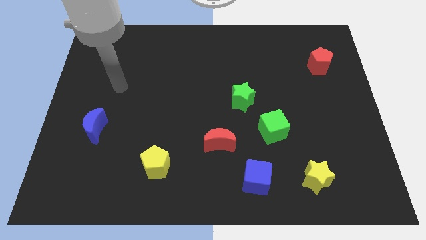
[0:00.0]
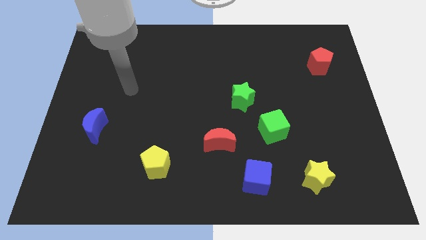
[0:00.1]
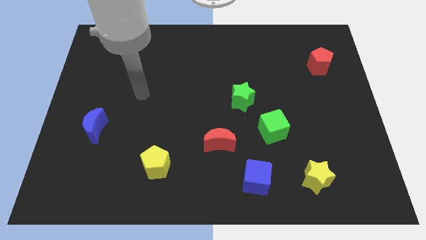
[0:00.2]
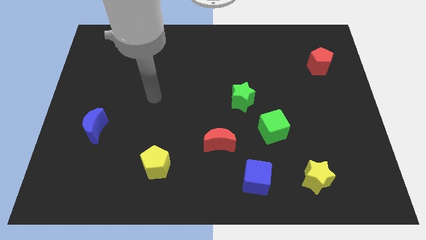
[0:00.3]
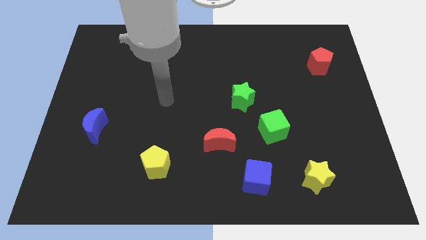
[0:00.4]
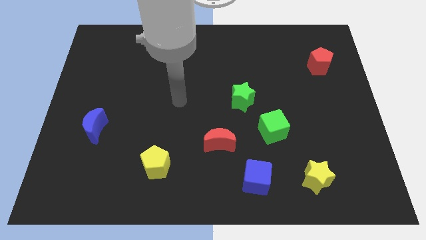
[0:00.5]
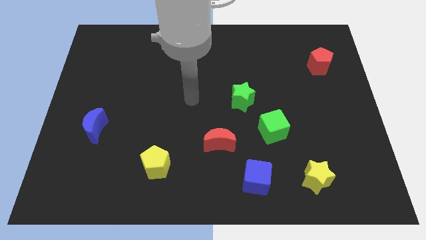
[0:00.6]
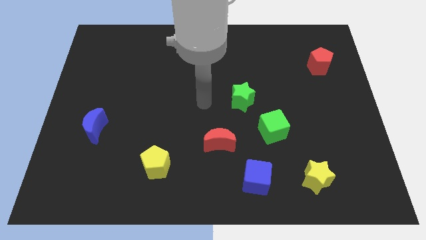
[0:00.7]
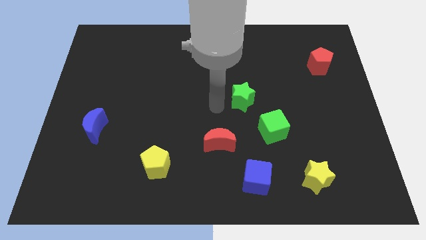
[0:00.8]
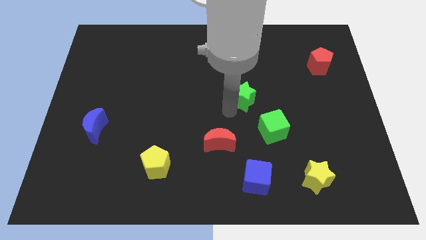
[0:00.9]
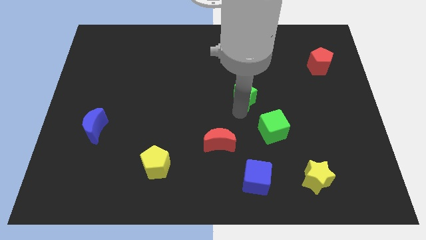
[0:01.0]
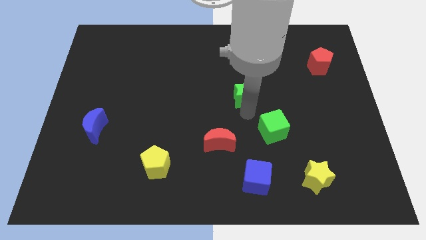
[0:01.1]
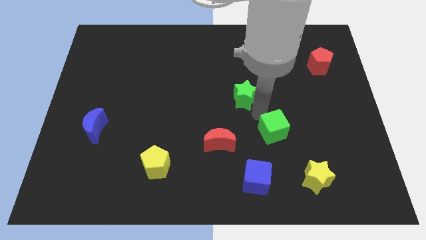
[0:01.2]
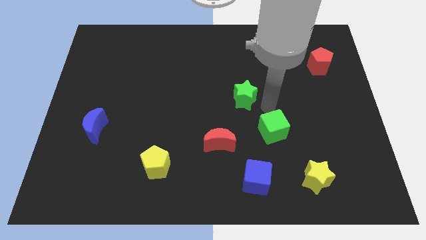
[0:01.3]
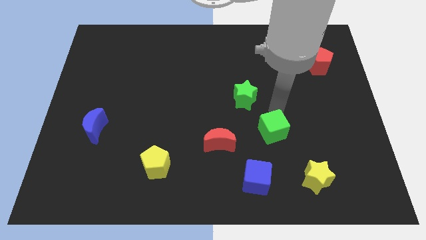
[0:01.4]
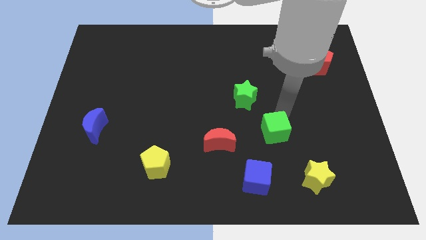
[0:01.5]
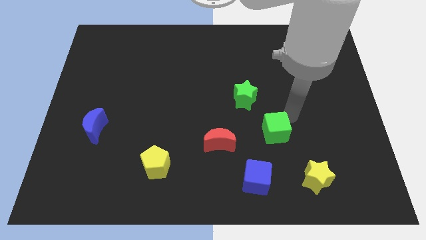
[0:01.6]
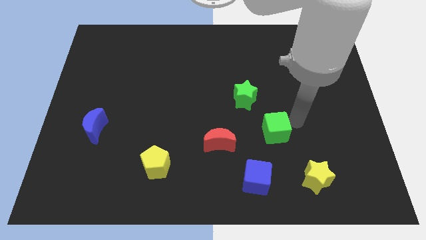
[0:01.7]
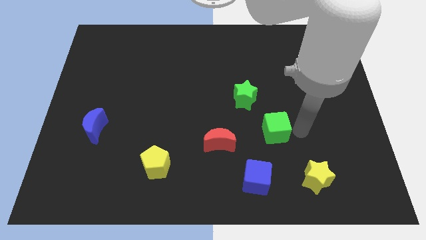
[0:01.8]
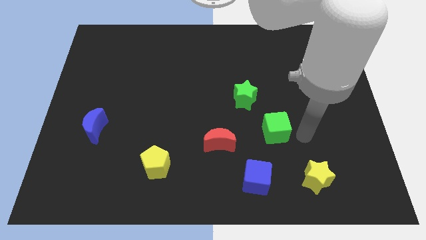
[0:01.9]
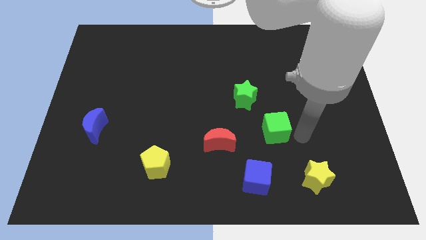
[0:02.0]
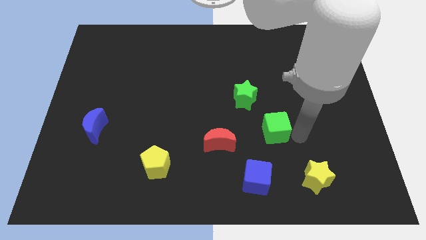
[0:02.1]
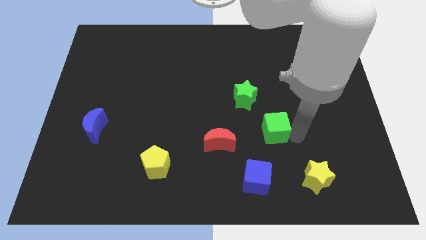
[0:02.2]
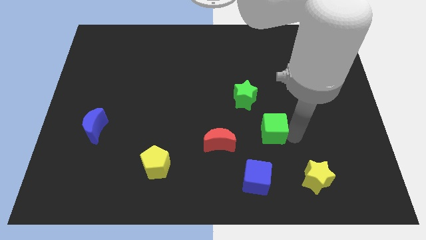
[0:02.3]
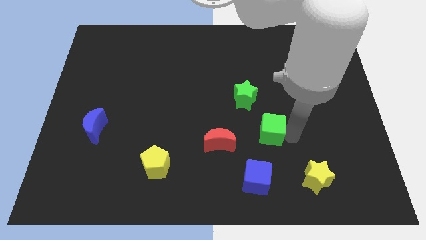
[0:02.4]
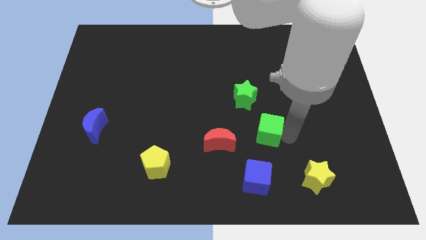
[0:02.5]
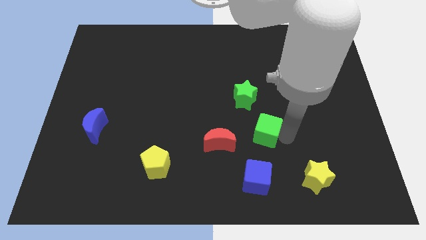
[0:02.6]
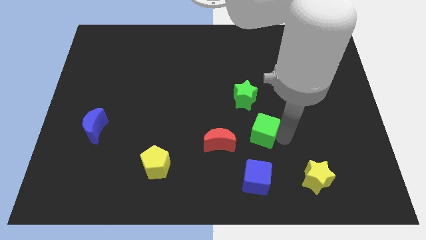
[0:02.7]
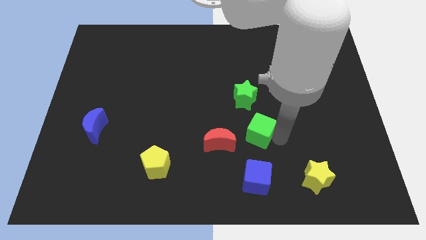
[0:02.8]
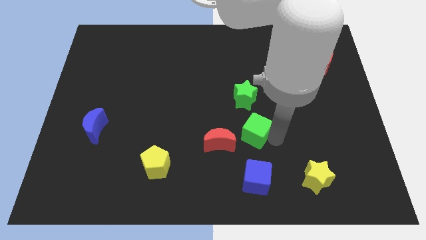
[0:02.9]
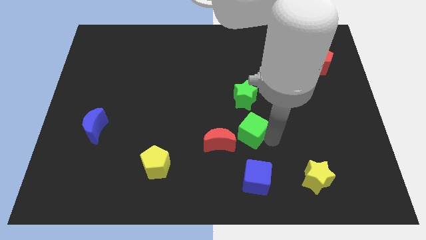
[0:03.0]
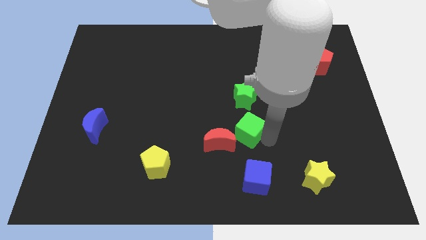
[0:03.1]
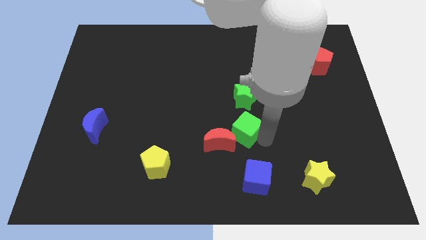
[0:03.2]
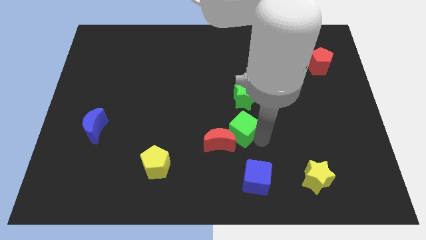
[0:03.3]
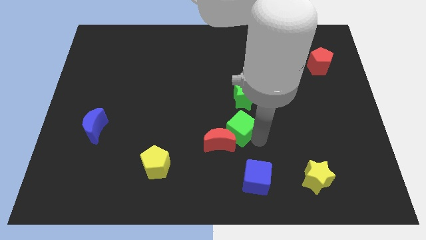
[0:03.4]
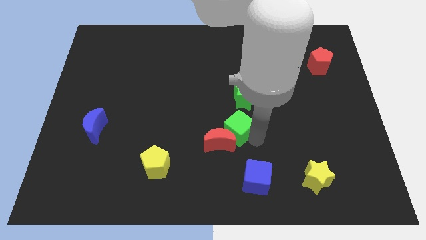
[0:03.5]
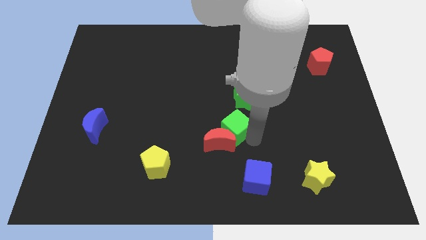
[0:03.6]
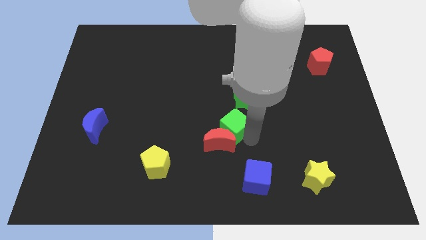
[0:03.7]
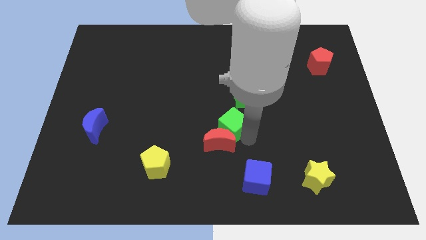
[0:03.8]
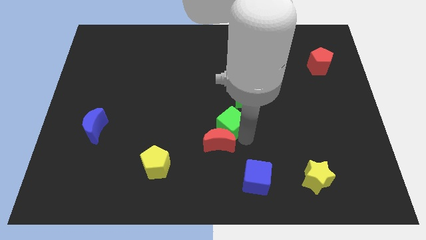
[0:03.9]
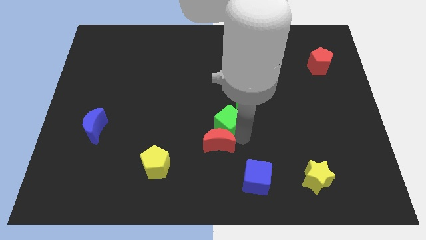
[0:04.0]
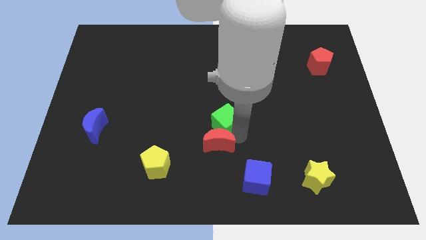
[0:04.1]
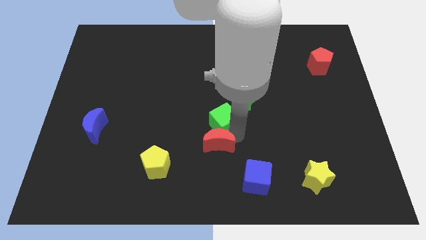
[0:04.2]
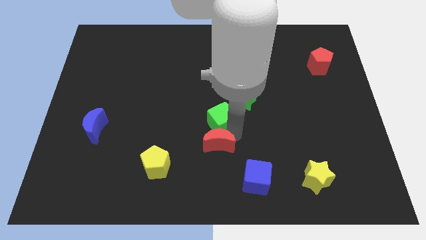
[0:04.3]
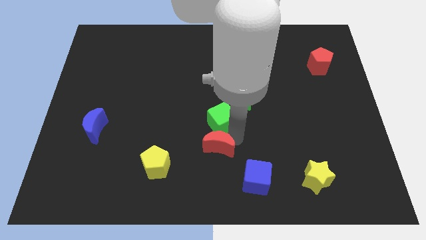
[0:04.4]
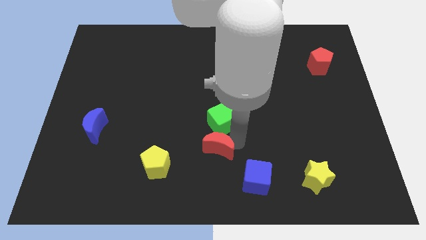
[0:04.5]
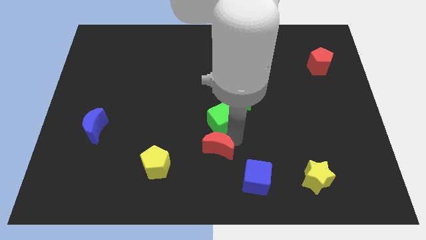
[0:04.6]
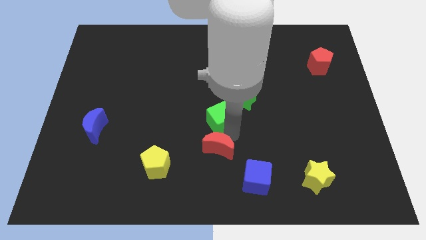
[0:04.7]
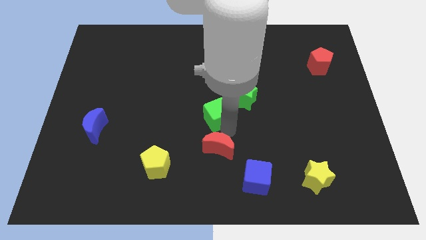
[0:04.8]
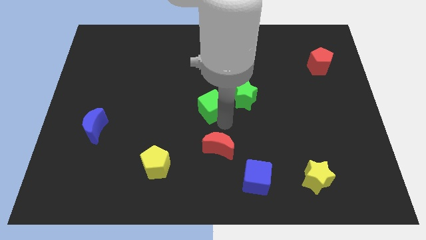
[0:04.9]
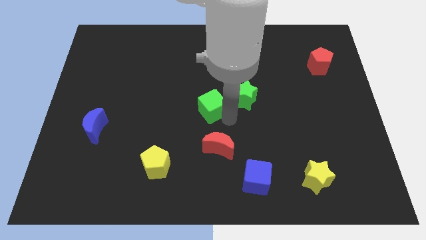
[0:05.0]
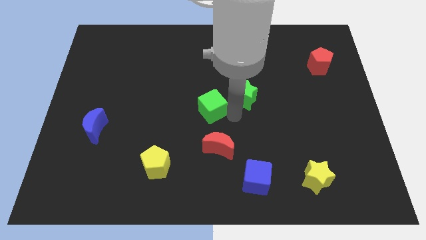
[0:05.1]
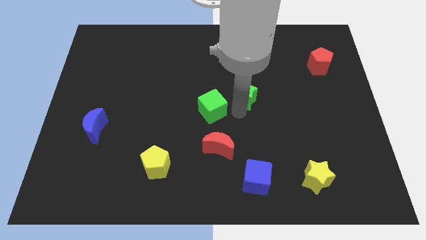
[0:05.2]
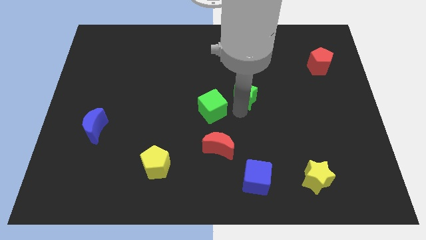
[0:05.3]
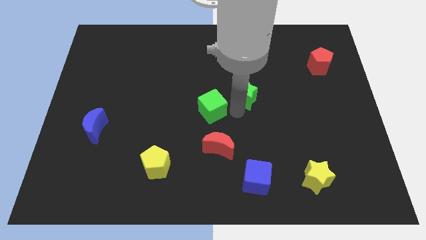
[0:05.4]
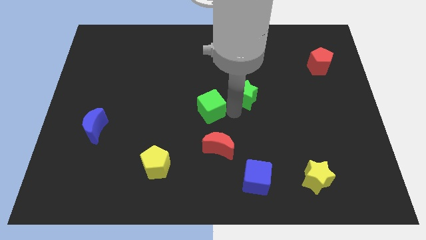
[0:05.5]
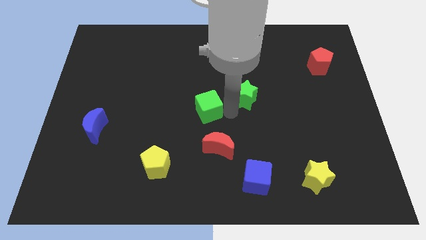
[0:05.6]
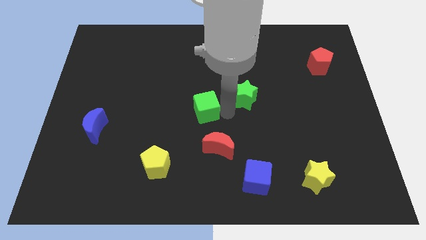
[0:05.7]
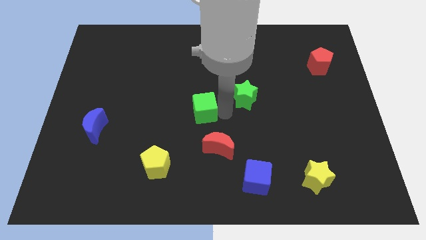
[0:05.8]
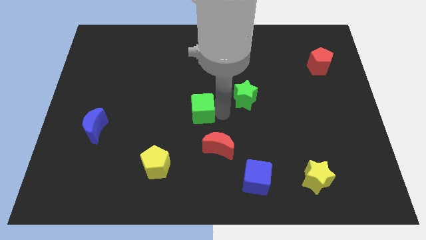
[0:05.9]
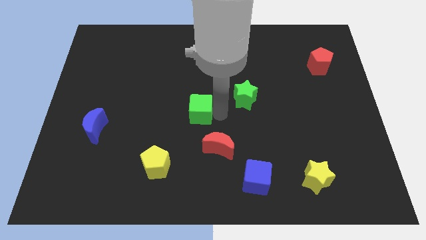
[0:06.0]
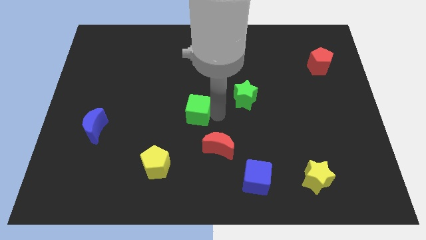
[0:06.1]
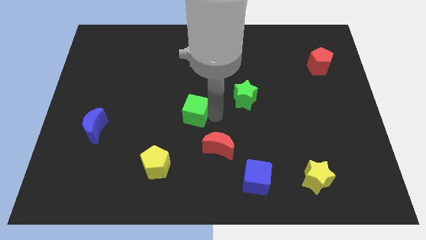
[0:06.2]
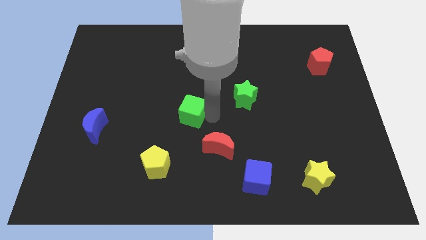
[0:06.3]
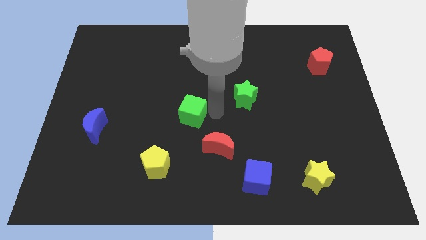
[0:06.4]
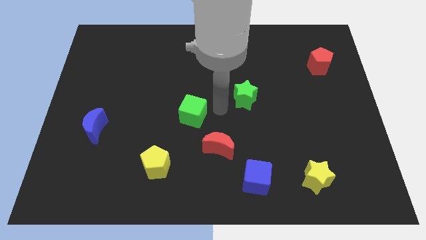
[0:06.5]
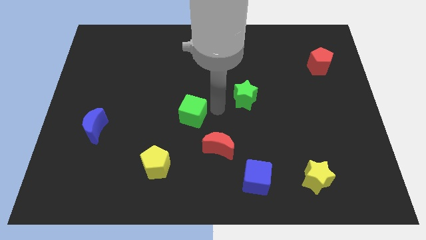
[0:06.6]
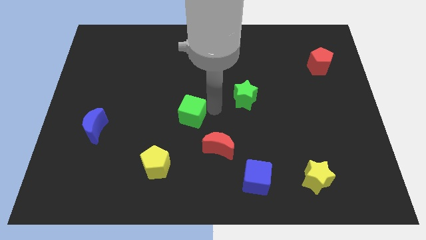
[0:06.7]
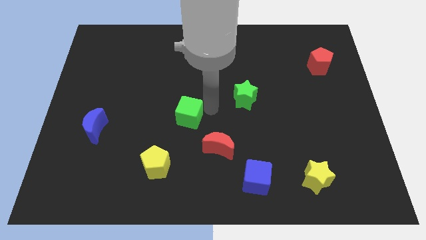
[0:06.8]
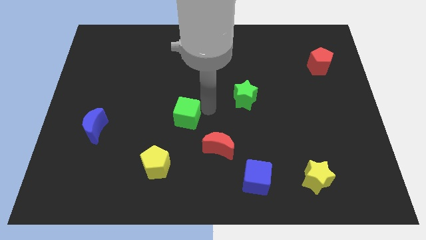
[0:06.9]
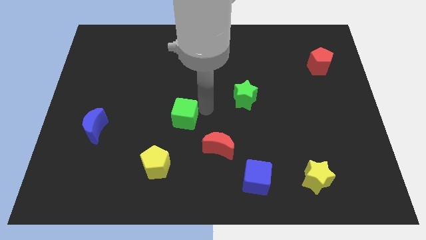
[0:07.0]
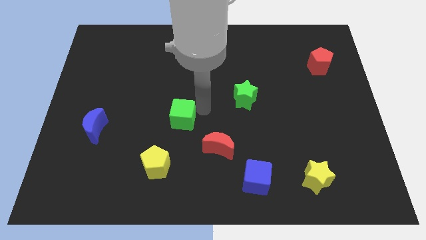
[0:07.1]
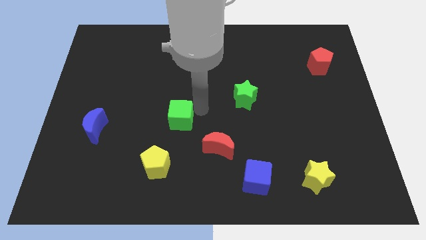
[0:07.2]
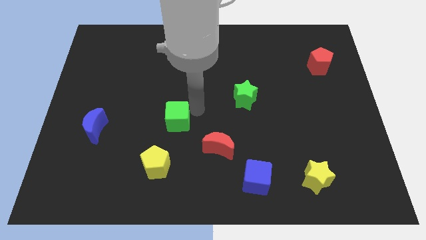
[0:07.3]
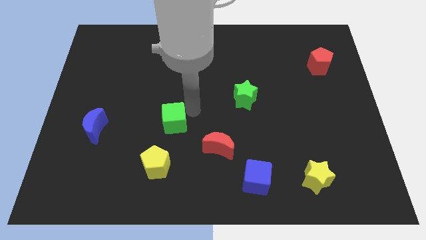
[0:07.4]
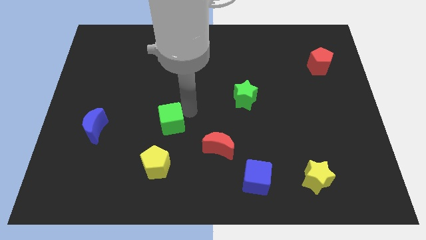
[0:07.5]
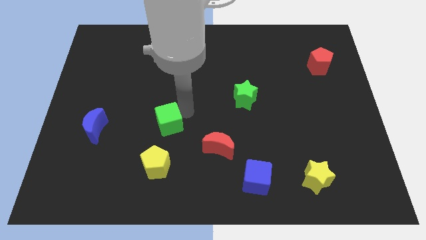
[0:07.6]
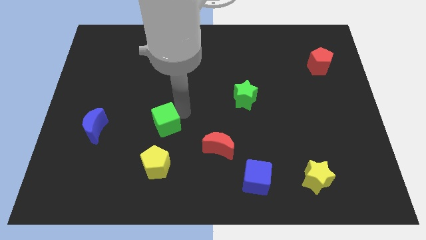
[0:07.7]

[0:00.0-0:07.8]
put the green cube right of the blue moon

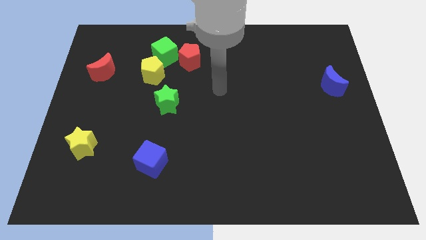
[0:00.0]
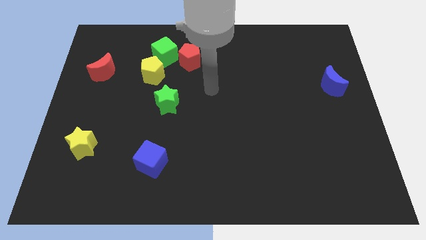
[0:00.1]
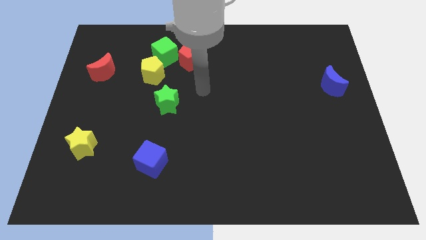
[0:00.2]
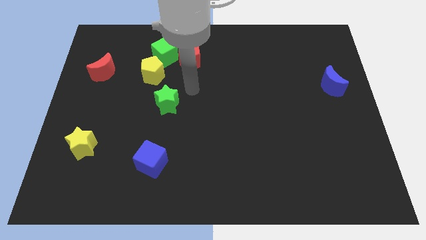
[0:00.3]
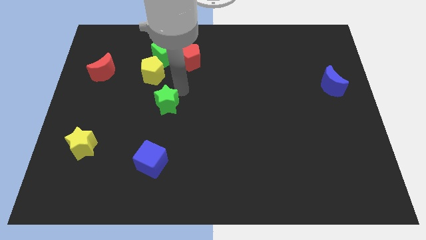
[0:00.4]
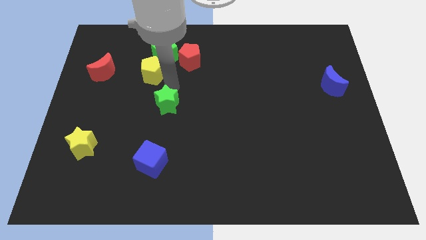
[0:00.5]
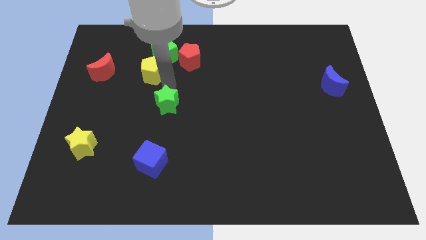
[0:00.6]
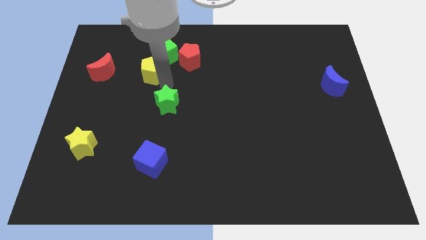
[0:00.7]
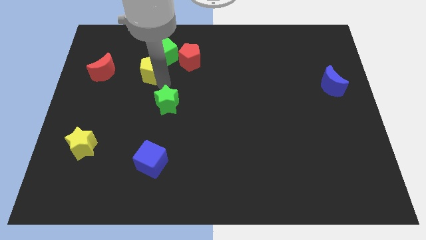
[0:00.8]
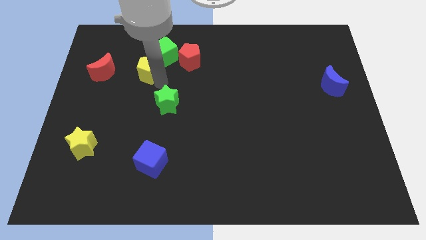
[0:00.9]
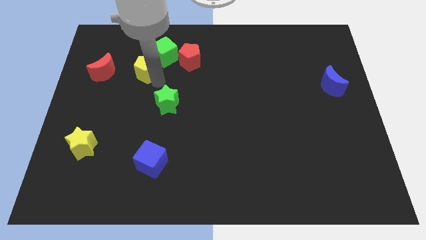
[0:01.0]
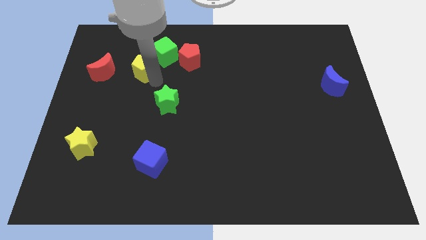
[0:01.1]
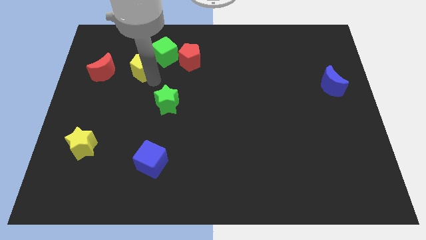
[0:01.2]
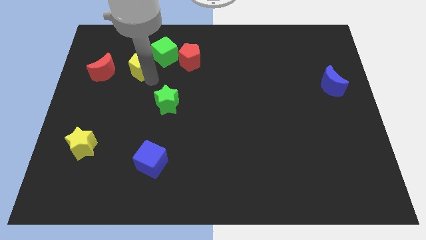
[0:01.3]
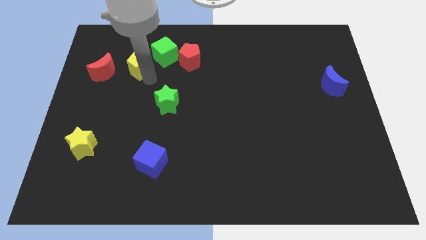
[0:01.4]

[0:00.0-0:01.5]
push the yellow pentagon left of the green cube
